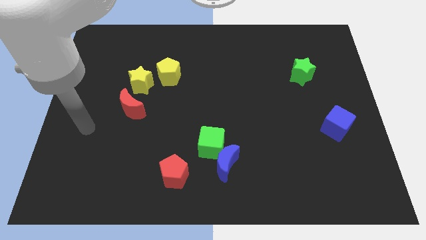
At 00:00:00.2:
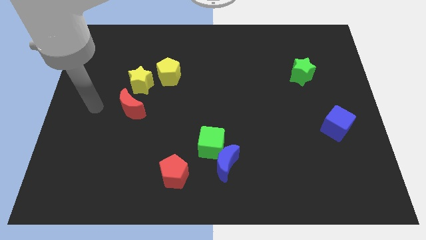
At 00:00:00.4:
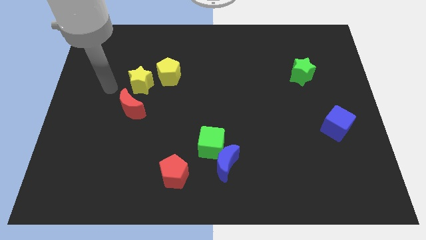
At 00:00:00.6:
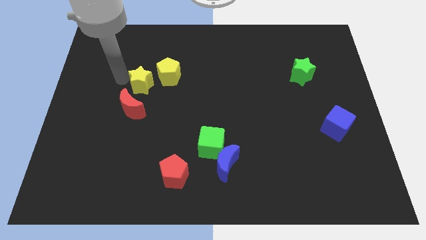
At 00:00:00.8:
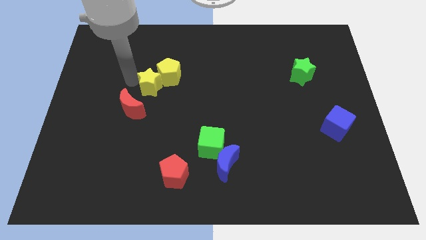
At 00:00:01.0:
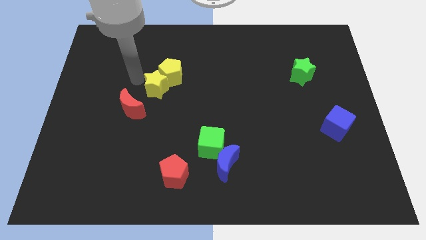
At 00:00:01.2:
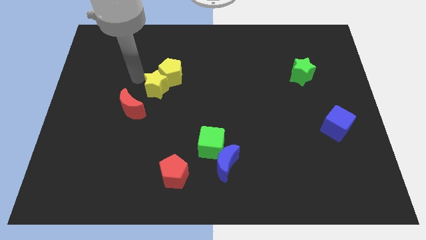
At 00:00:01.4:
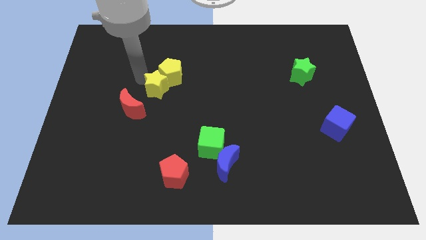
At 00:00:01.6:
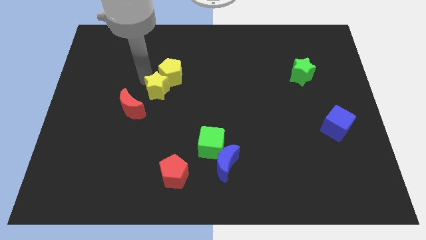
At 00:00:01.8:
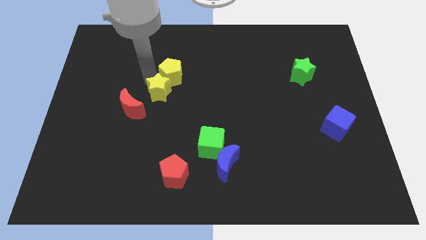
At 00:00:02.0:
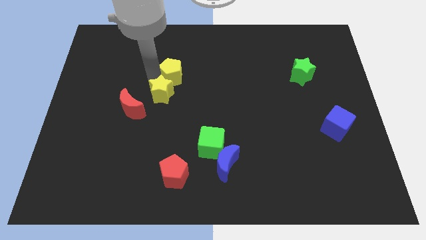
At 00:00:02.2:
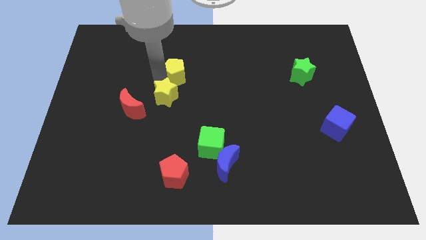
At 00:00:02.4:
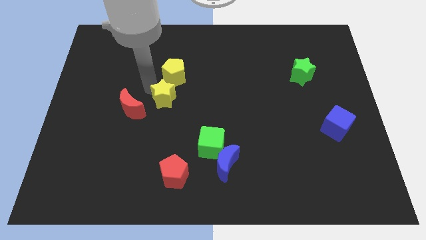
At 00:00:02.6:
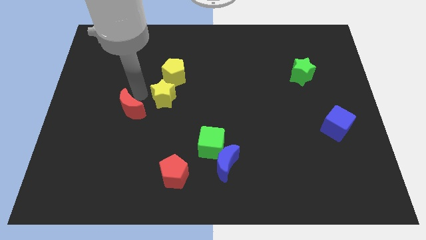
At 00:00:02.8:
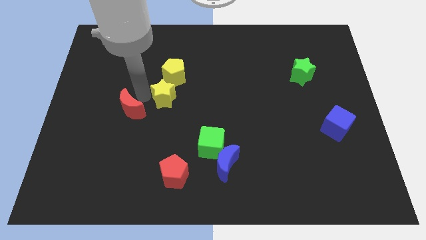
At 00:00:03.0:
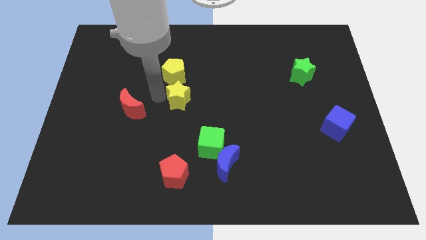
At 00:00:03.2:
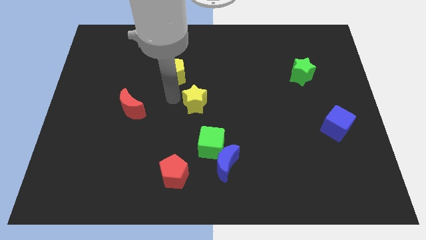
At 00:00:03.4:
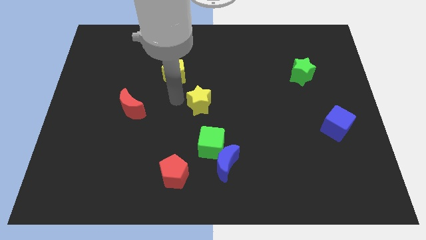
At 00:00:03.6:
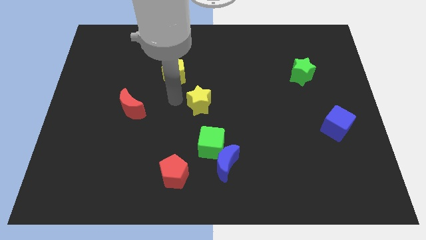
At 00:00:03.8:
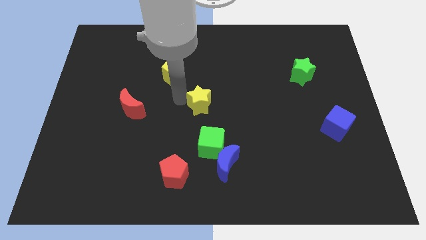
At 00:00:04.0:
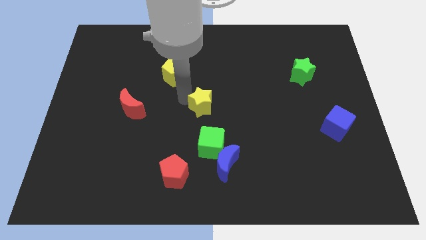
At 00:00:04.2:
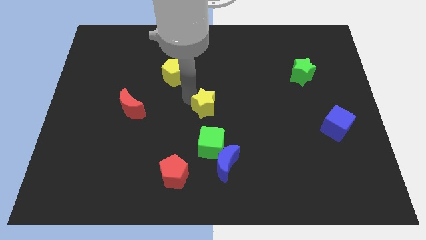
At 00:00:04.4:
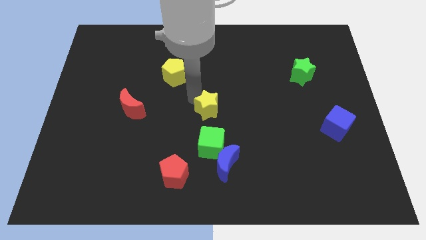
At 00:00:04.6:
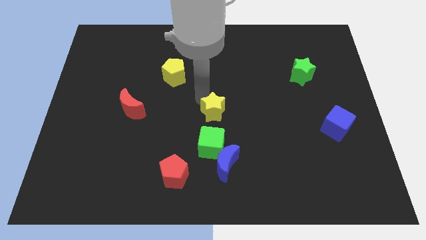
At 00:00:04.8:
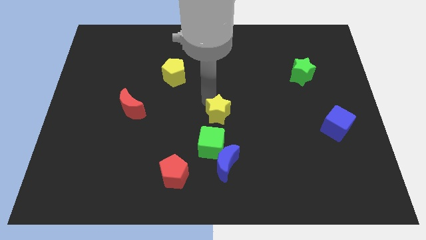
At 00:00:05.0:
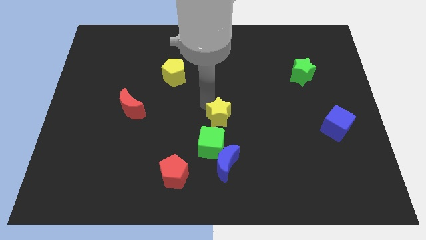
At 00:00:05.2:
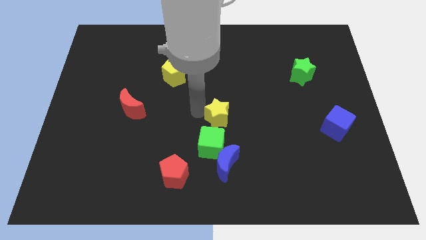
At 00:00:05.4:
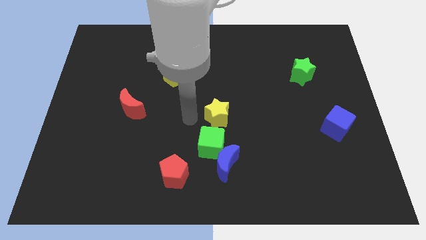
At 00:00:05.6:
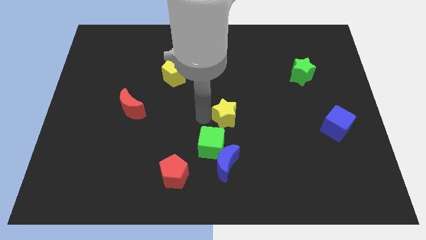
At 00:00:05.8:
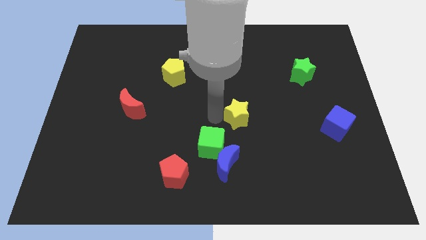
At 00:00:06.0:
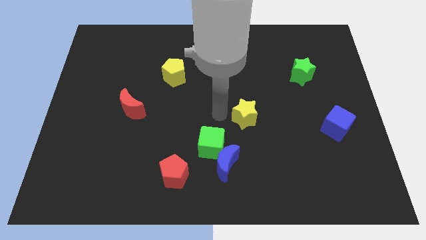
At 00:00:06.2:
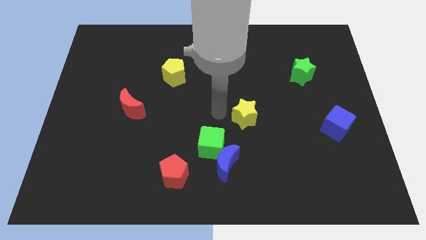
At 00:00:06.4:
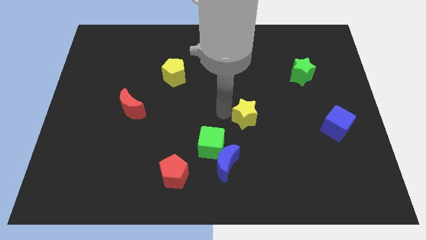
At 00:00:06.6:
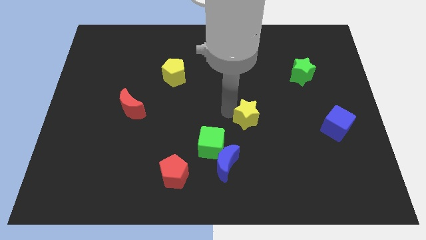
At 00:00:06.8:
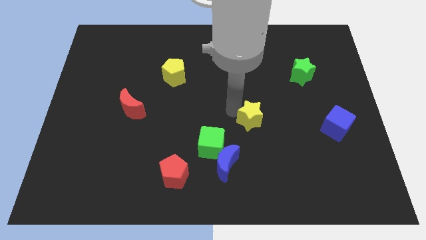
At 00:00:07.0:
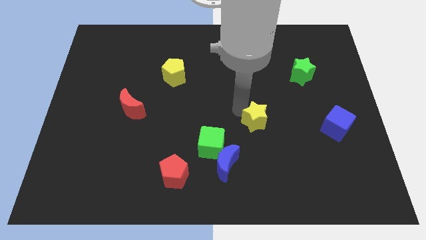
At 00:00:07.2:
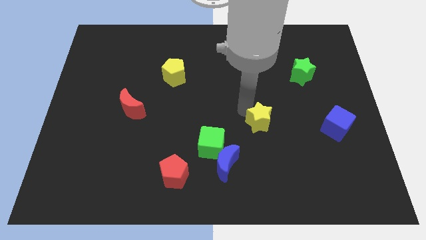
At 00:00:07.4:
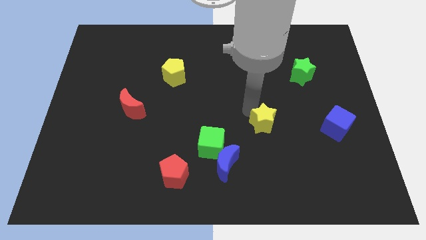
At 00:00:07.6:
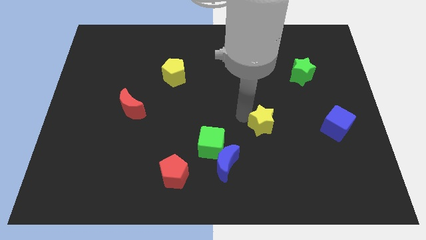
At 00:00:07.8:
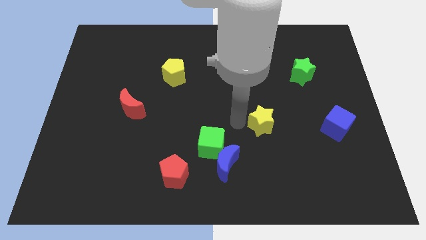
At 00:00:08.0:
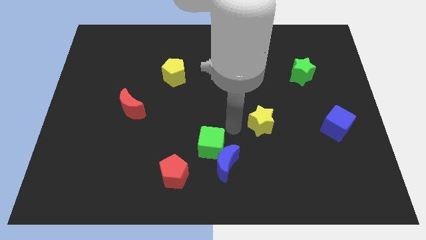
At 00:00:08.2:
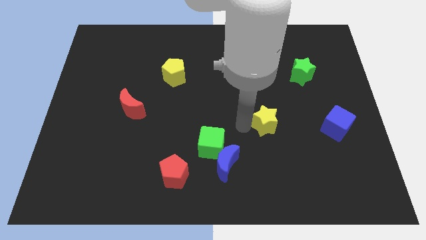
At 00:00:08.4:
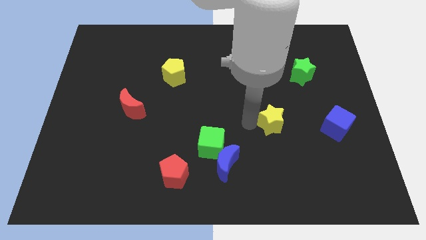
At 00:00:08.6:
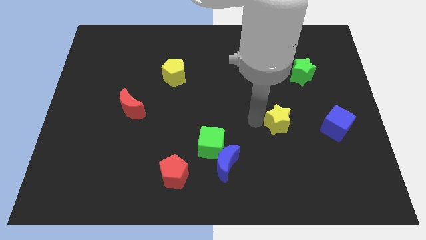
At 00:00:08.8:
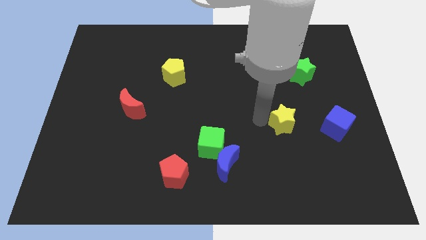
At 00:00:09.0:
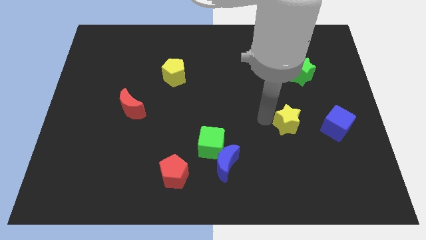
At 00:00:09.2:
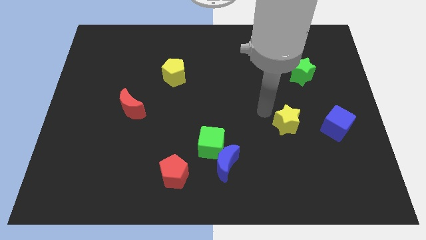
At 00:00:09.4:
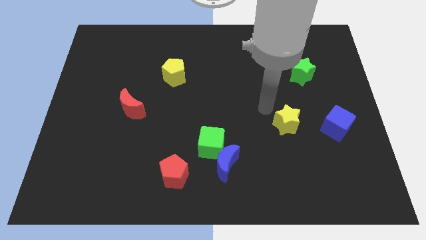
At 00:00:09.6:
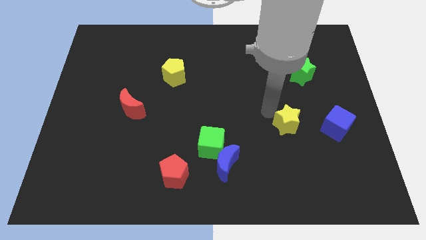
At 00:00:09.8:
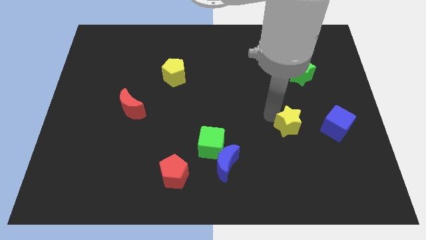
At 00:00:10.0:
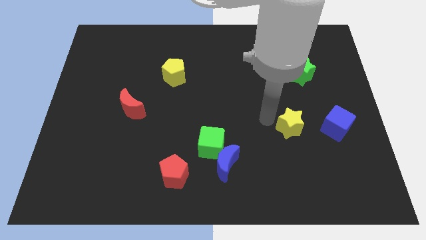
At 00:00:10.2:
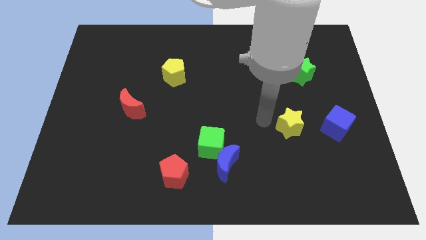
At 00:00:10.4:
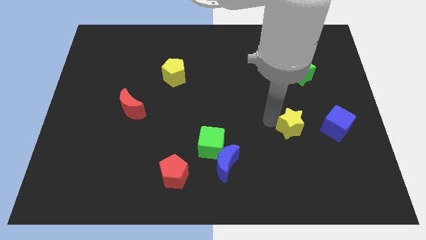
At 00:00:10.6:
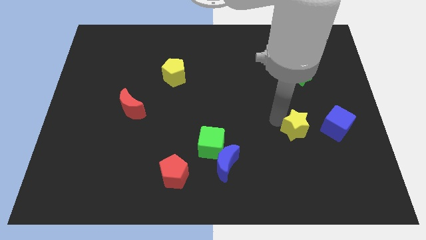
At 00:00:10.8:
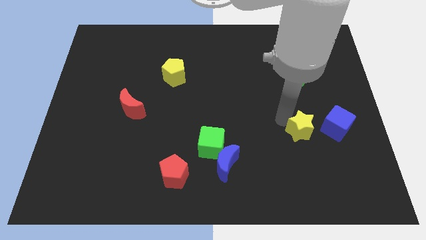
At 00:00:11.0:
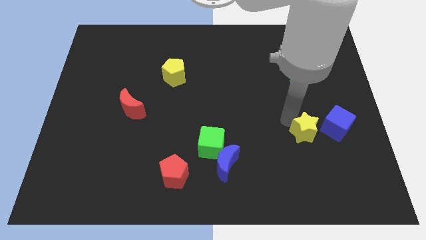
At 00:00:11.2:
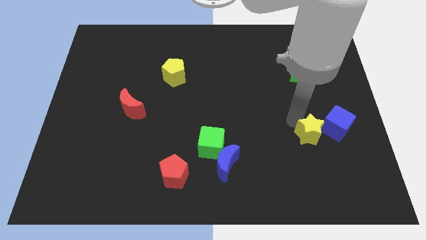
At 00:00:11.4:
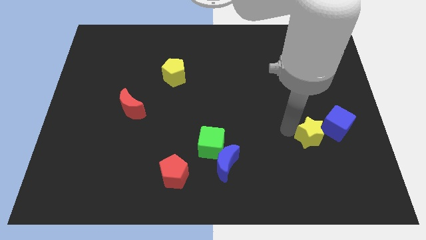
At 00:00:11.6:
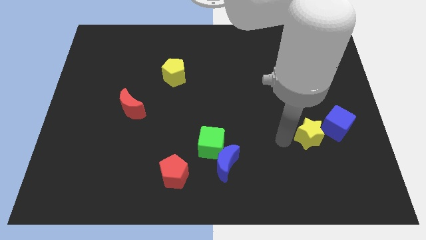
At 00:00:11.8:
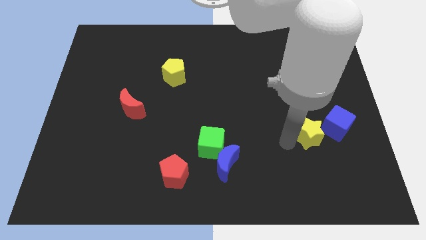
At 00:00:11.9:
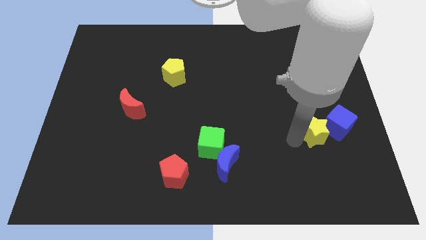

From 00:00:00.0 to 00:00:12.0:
move the yellow star close to the blue cube

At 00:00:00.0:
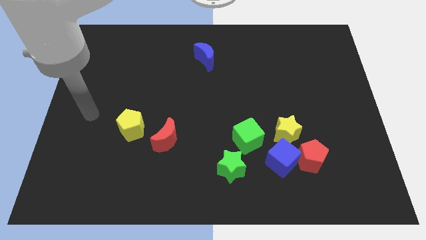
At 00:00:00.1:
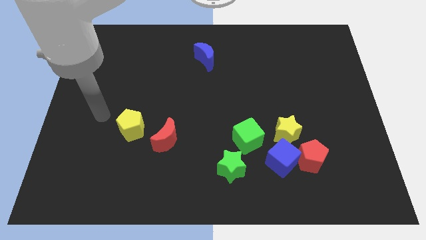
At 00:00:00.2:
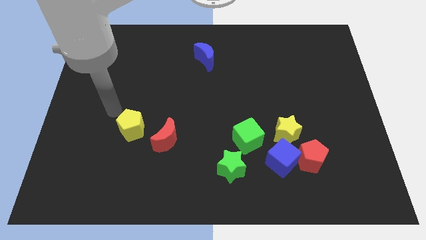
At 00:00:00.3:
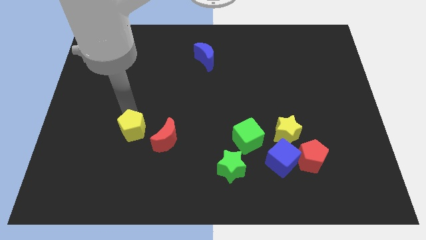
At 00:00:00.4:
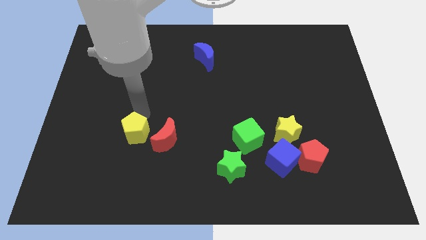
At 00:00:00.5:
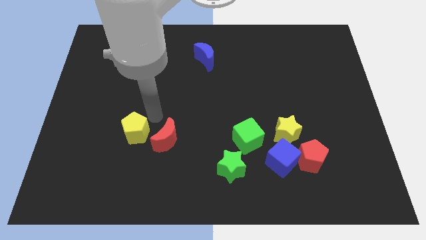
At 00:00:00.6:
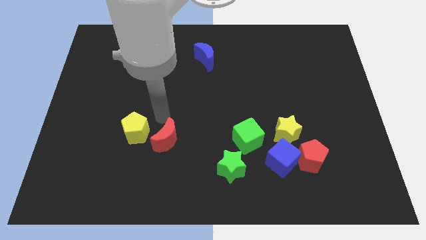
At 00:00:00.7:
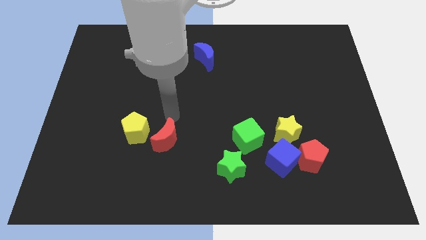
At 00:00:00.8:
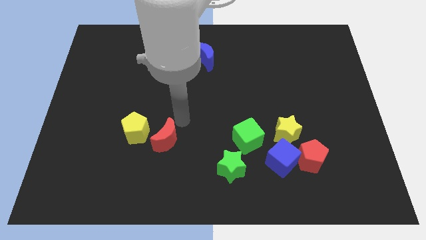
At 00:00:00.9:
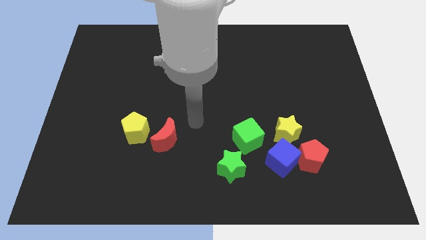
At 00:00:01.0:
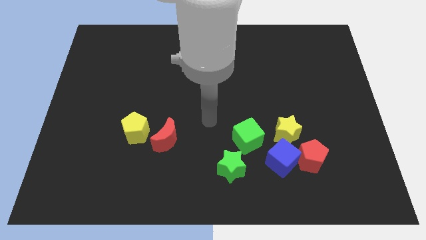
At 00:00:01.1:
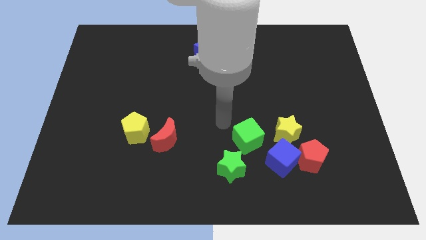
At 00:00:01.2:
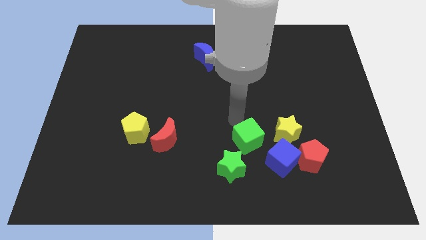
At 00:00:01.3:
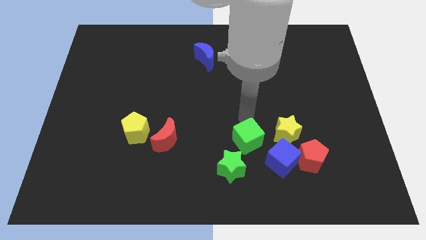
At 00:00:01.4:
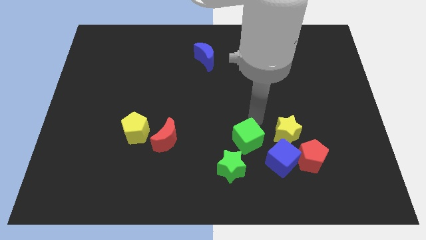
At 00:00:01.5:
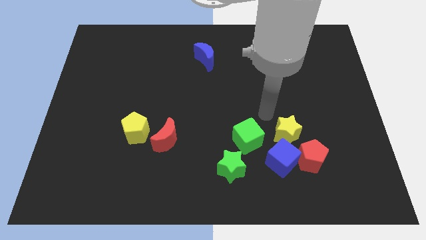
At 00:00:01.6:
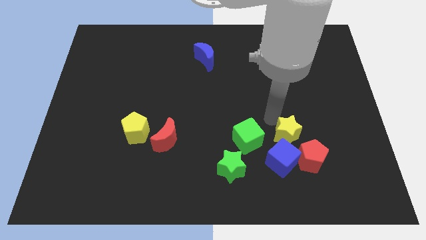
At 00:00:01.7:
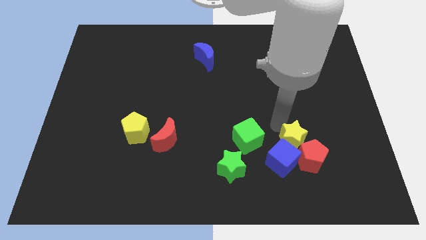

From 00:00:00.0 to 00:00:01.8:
push the yellow star close to the red pentagon
